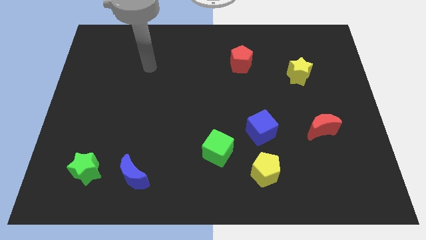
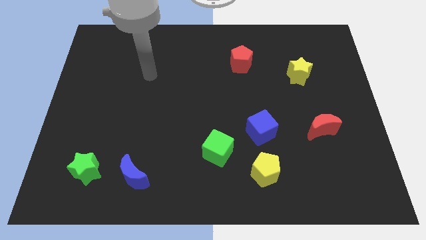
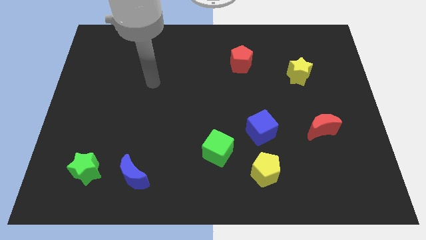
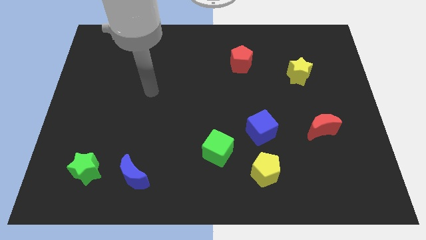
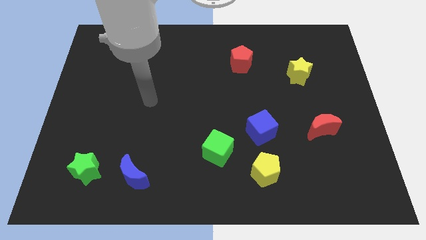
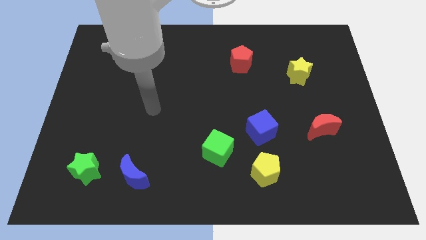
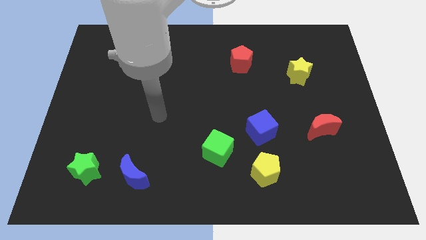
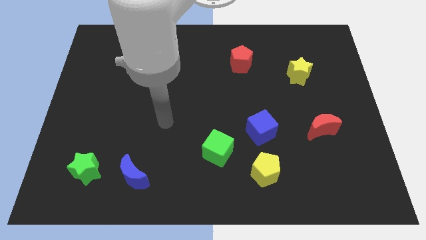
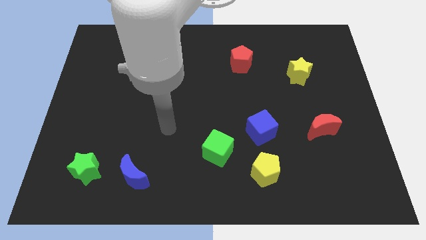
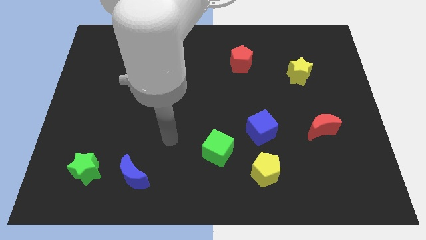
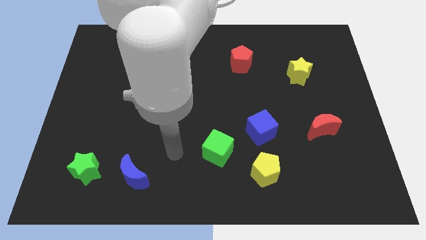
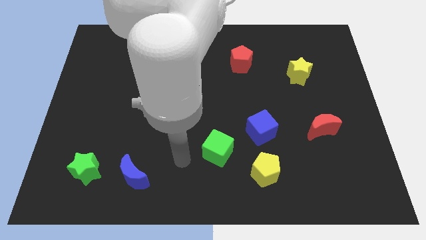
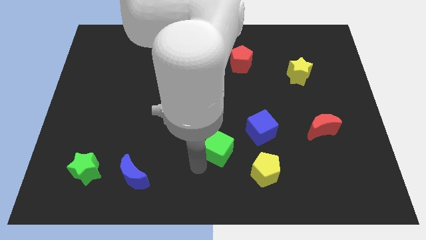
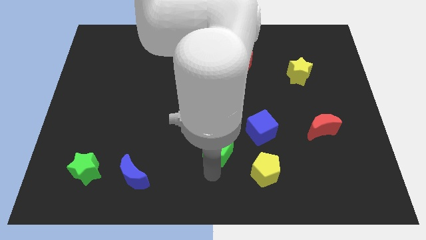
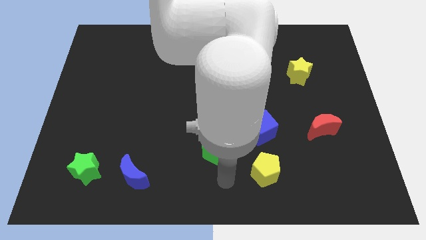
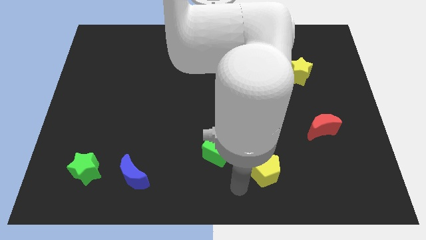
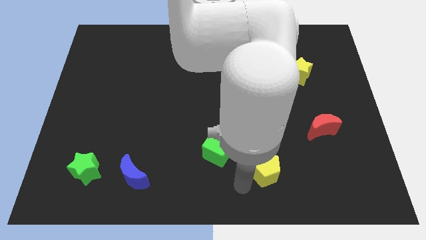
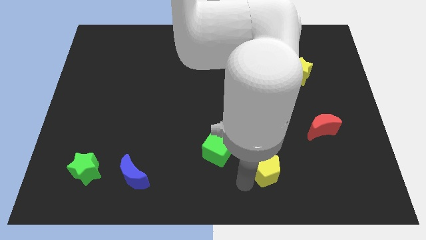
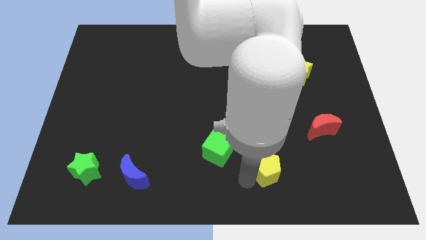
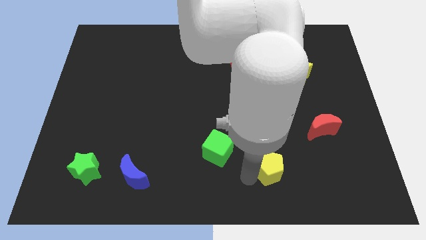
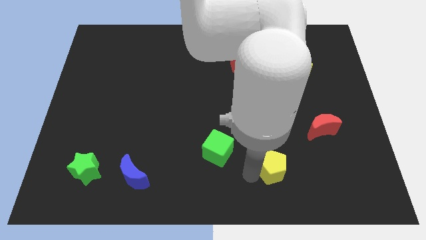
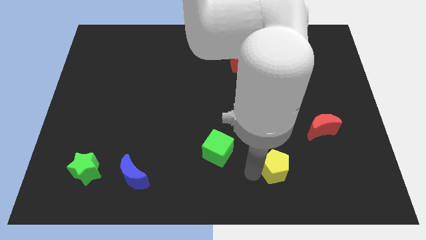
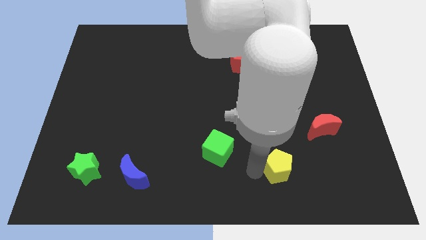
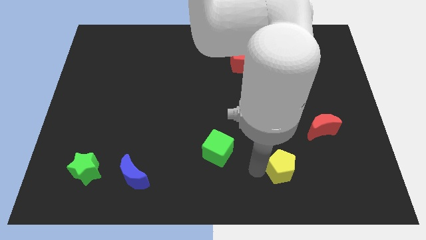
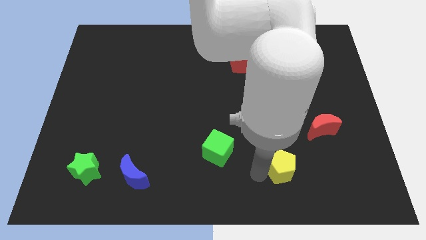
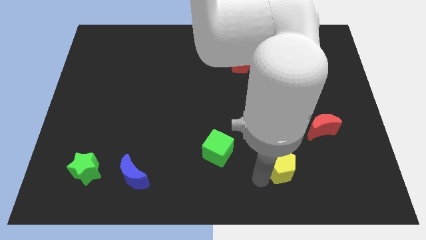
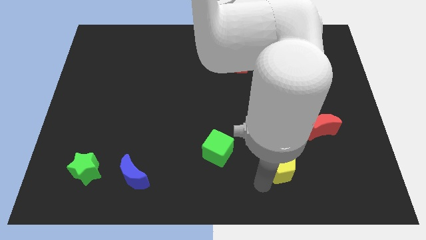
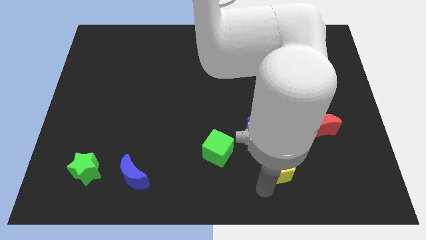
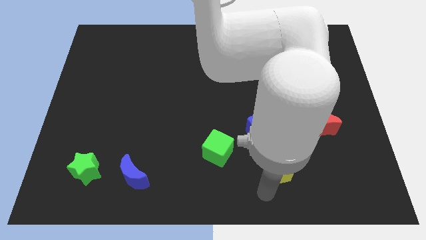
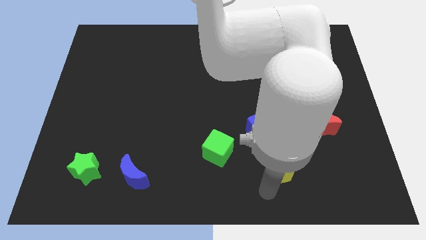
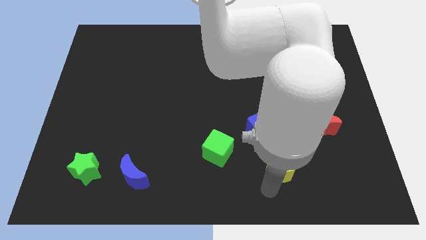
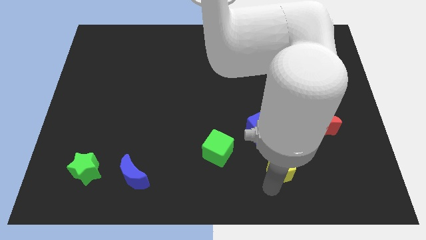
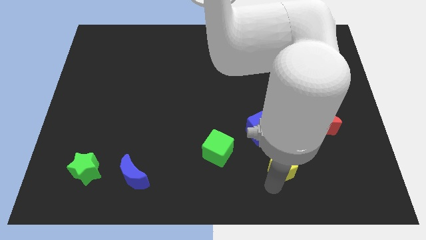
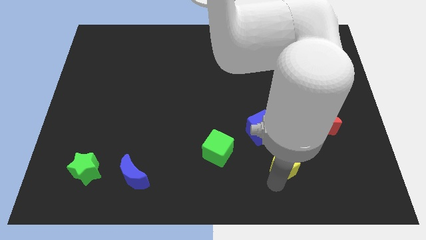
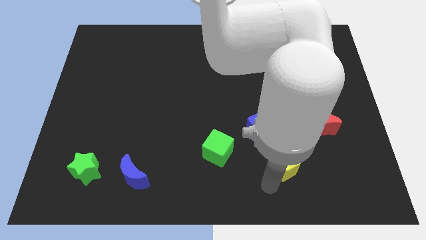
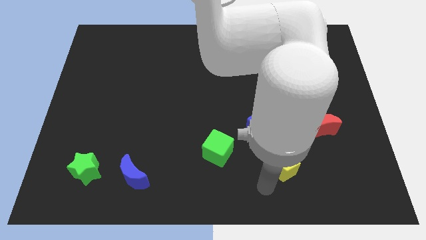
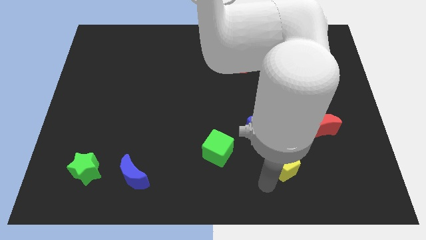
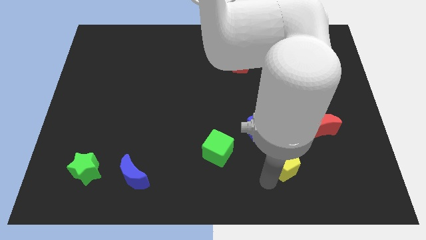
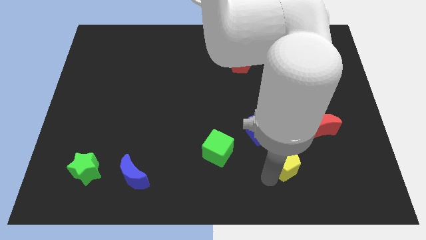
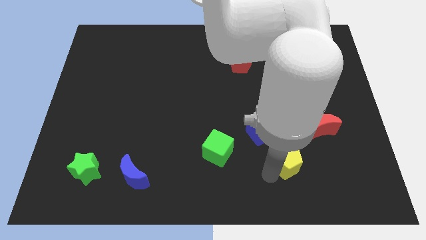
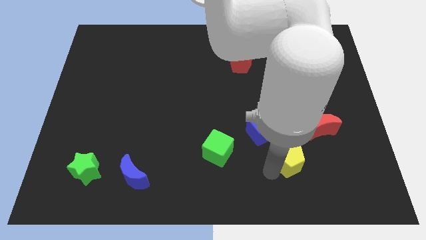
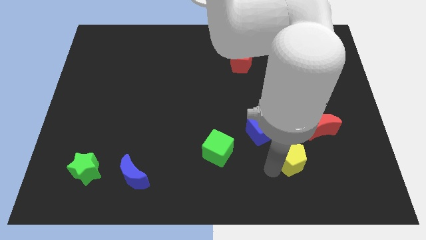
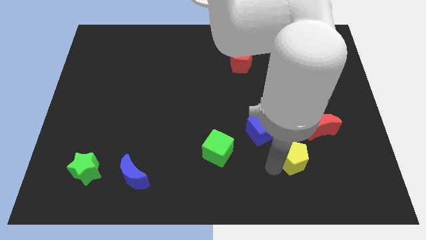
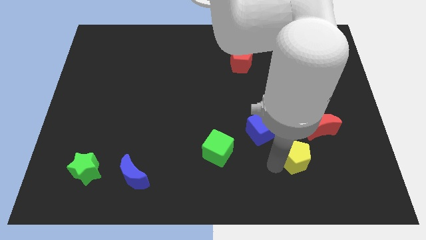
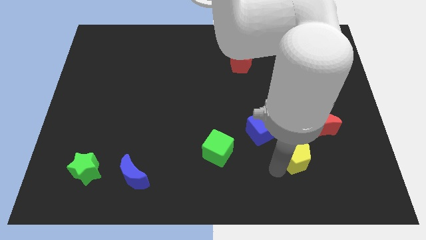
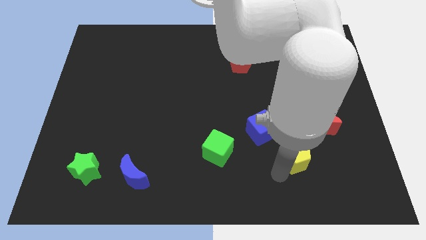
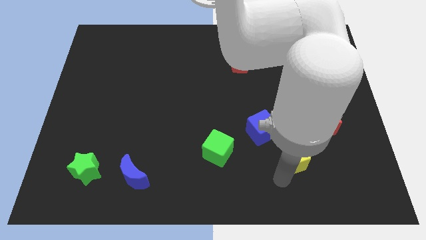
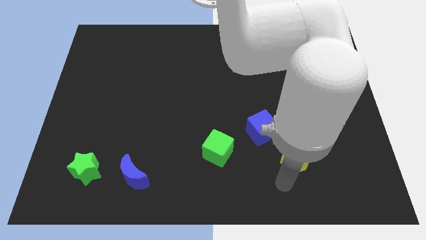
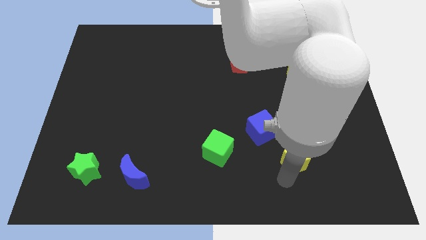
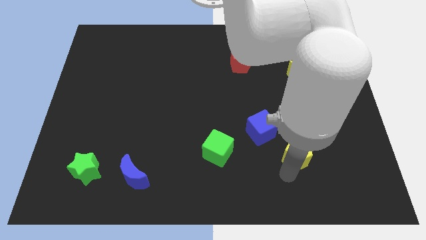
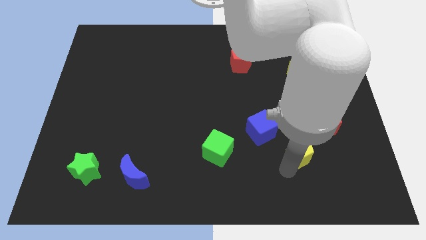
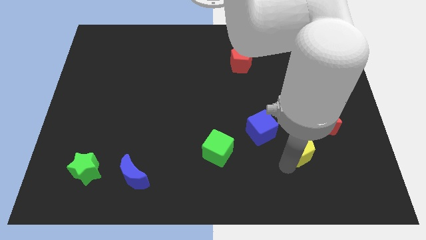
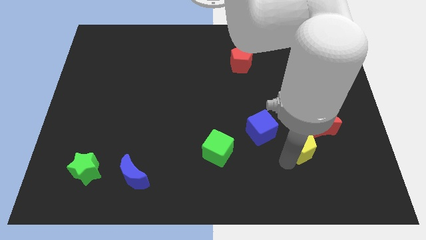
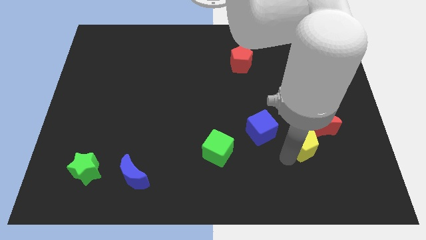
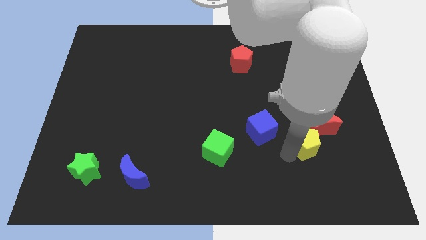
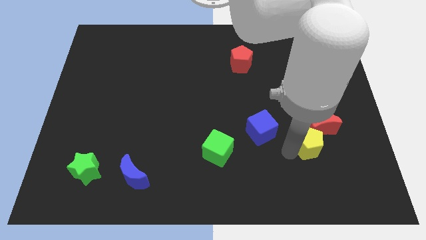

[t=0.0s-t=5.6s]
move the yellow pentagon close to the red moon

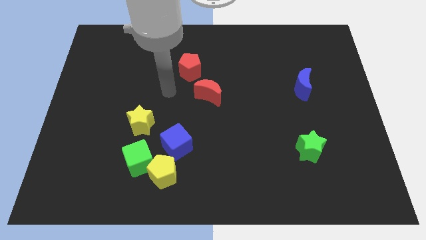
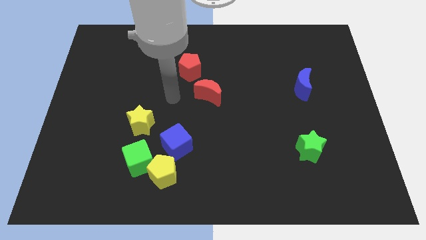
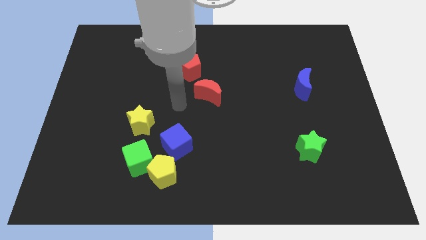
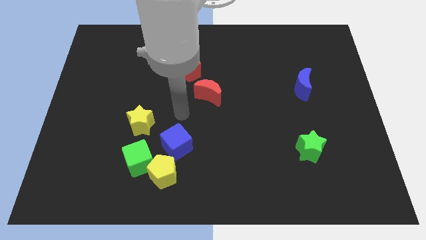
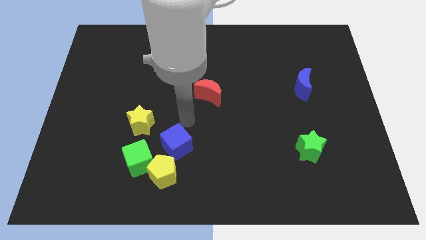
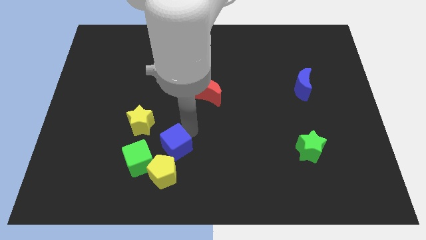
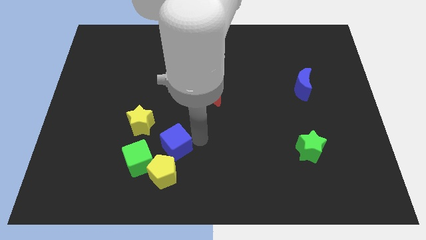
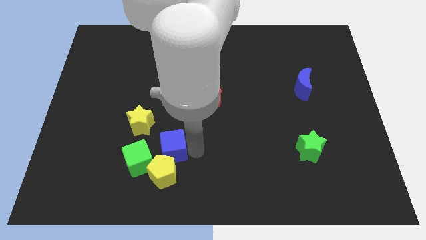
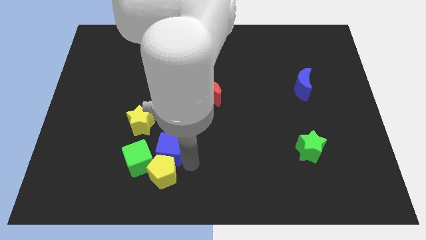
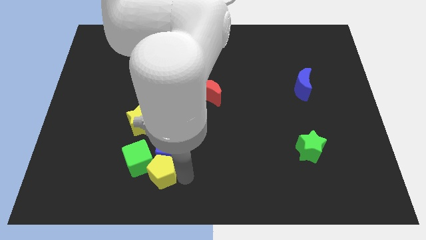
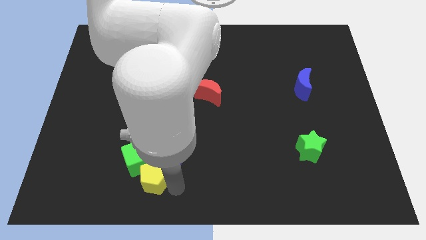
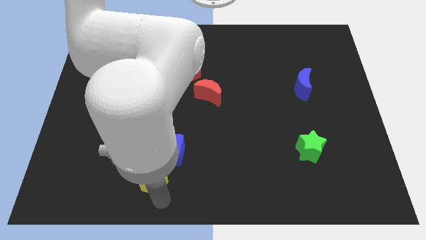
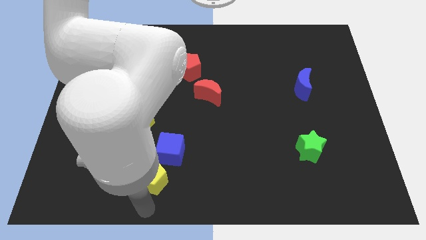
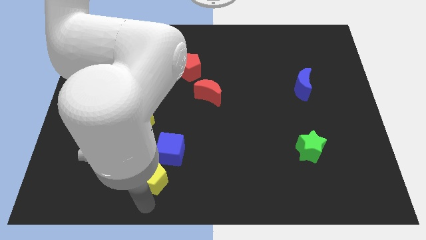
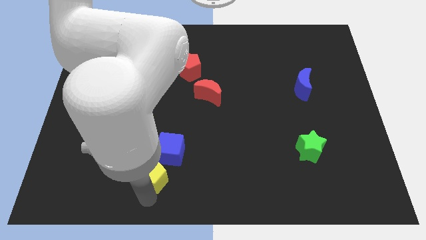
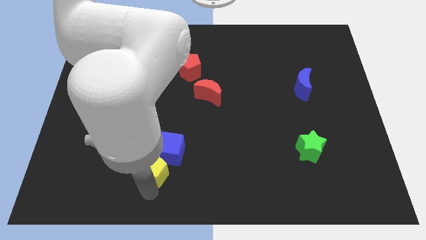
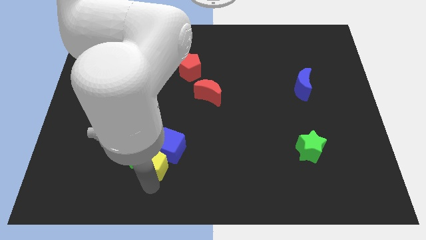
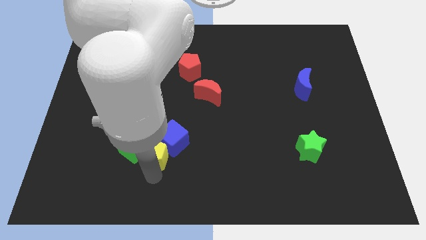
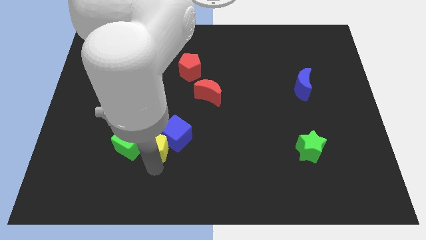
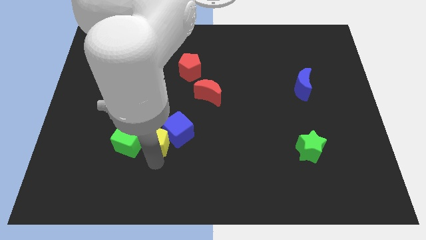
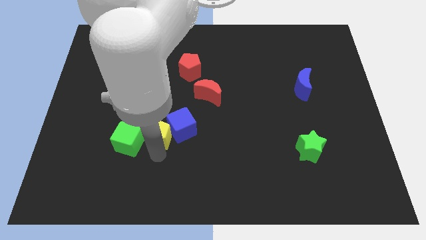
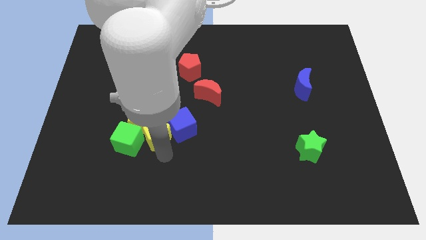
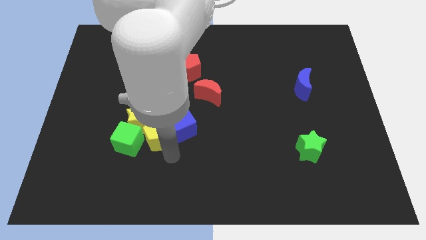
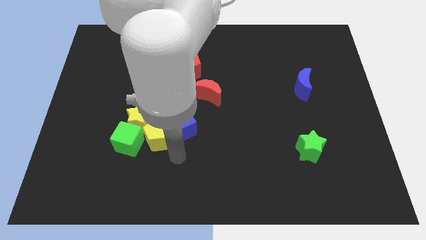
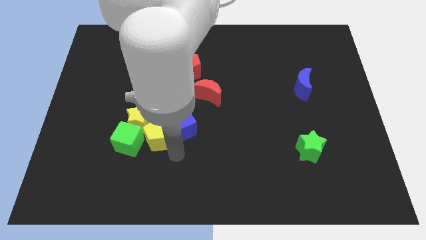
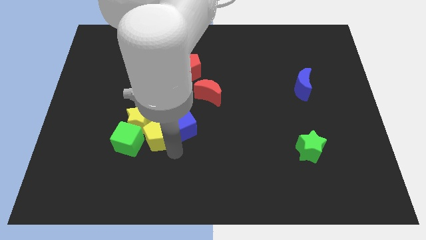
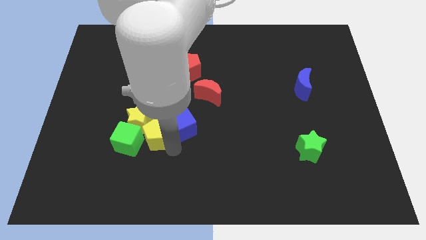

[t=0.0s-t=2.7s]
slide the yellow pentagon next to the yellow star
